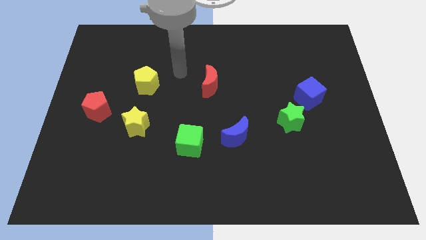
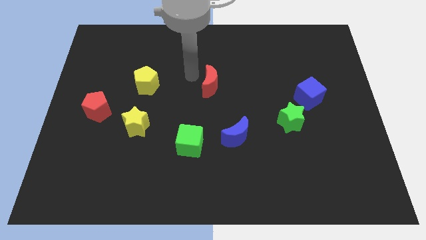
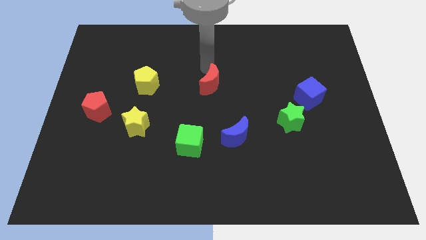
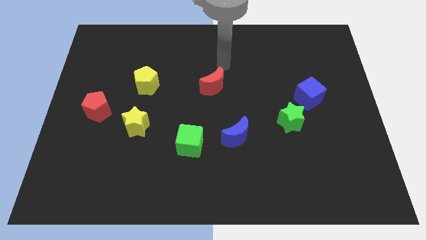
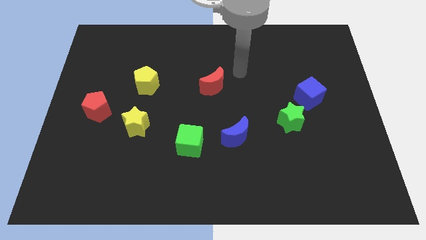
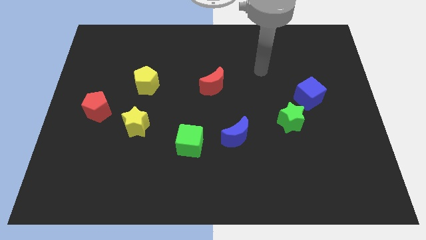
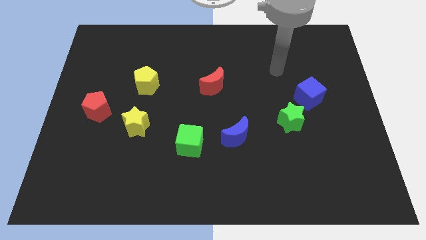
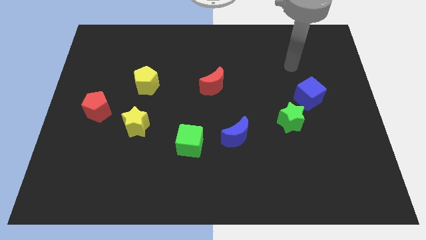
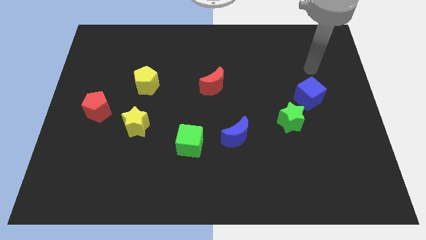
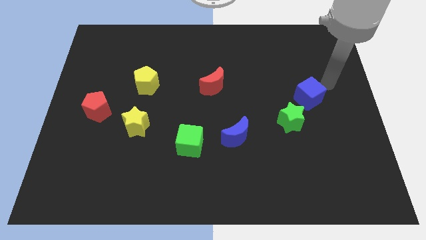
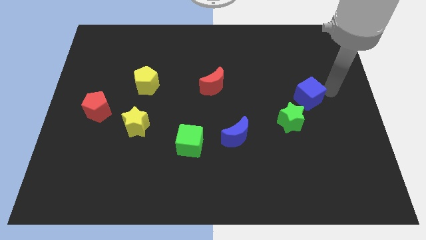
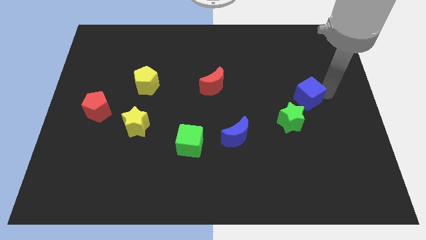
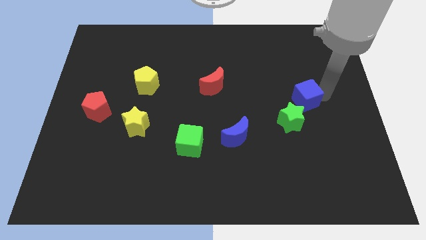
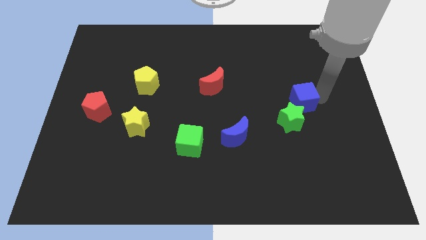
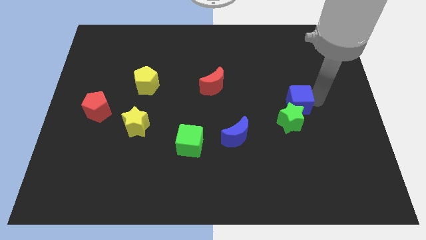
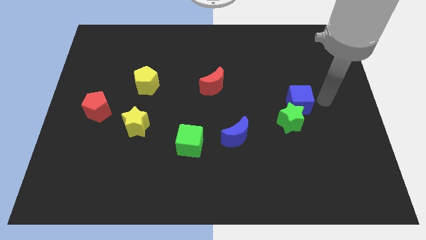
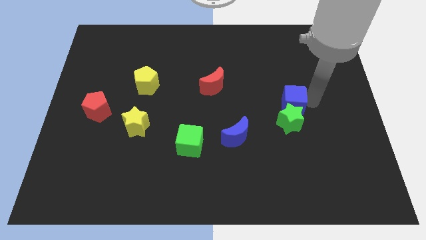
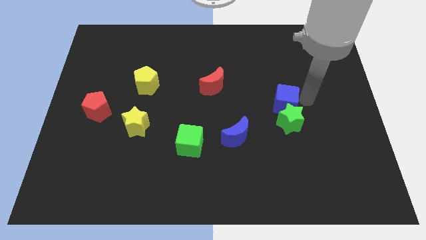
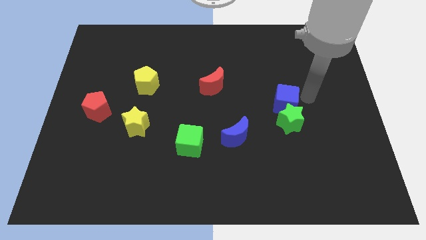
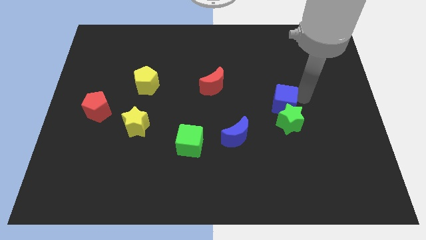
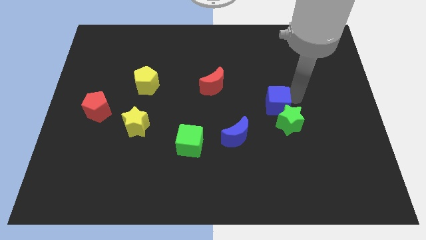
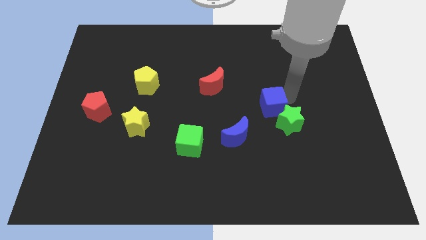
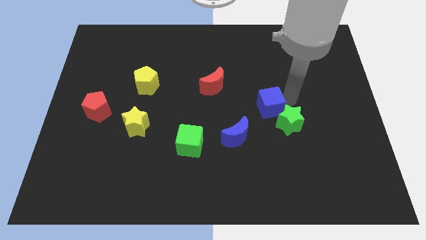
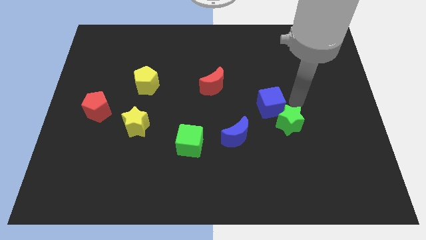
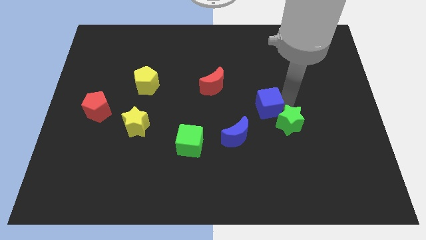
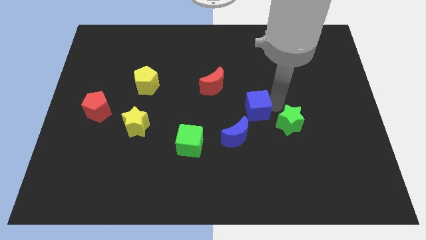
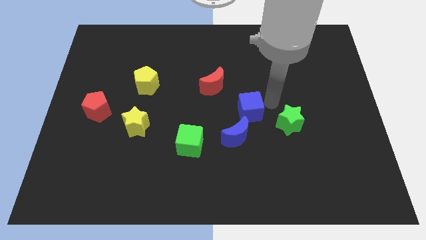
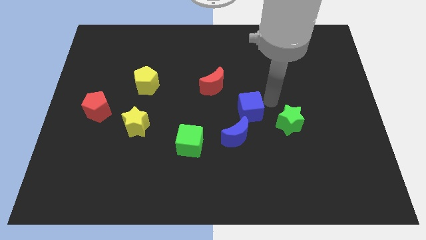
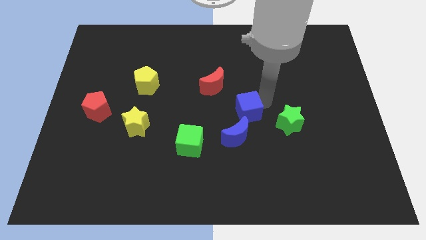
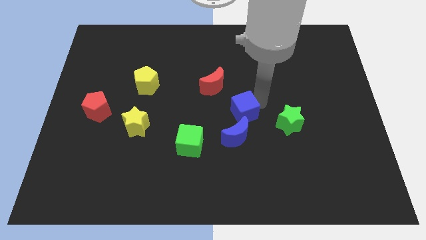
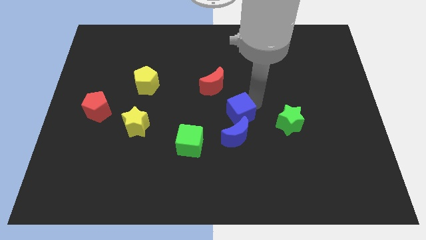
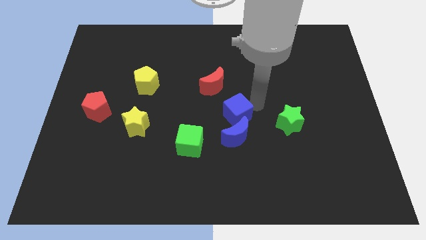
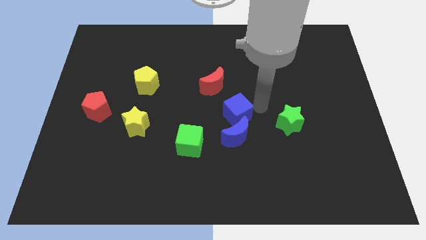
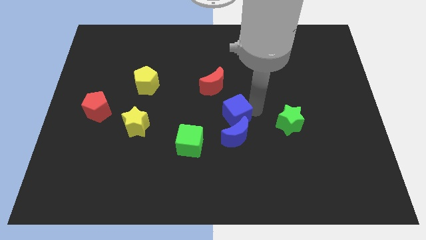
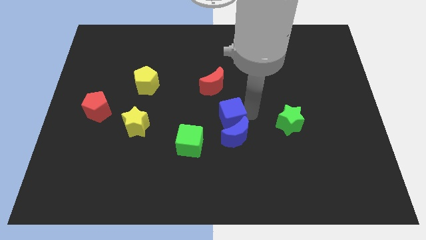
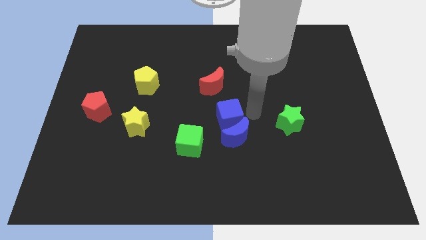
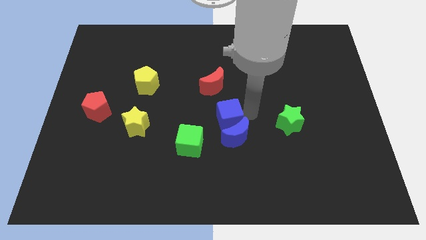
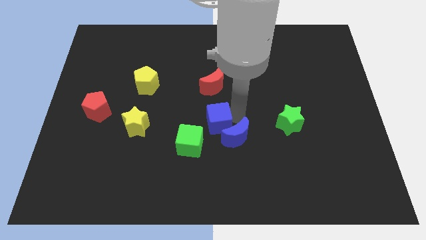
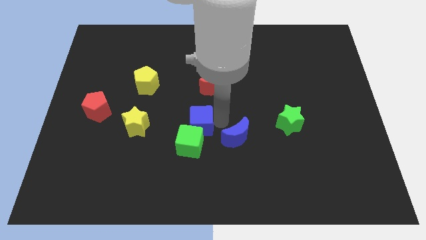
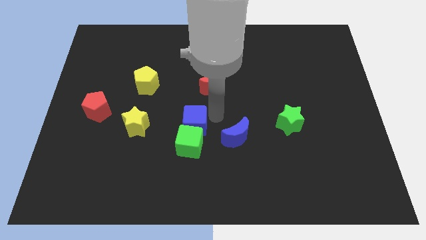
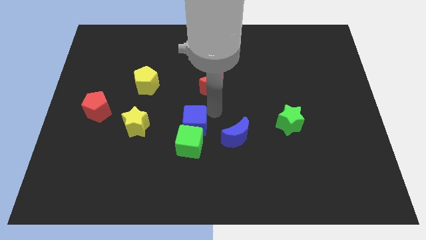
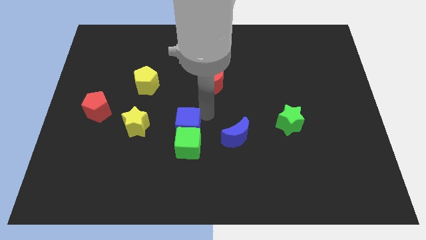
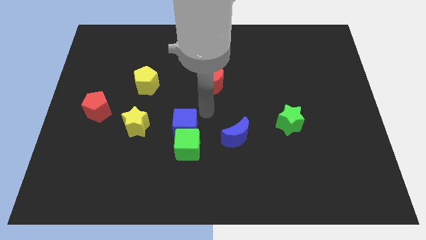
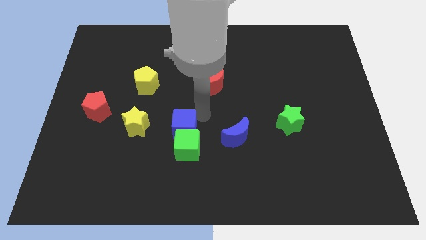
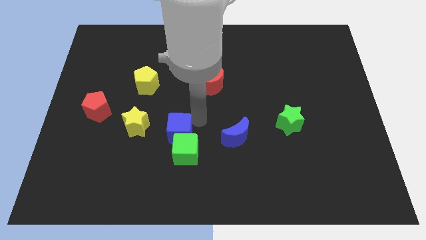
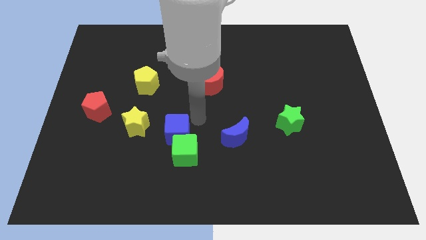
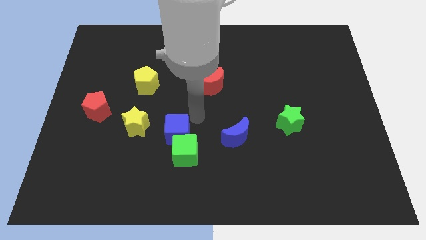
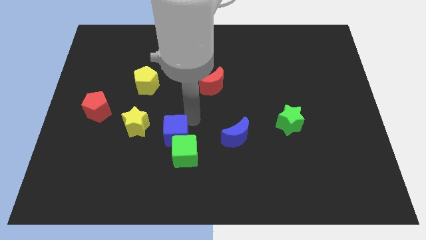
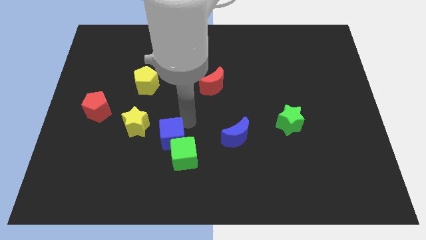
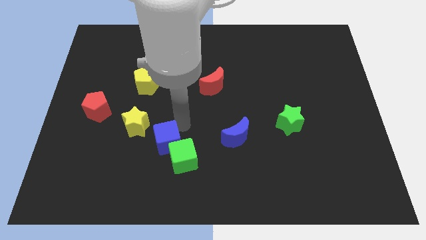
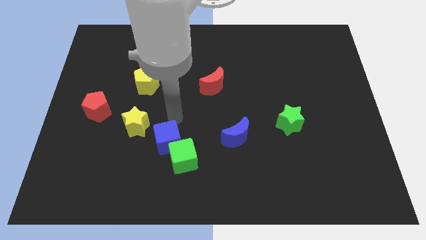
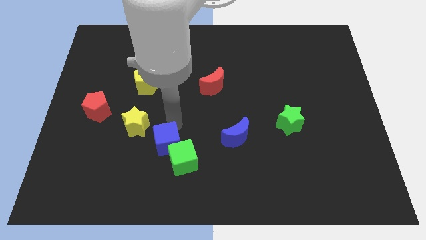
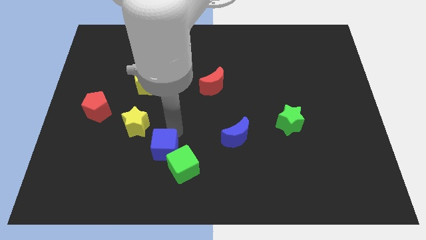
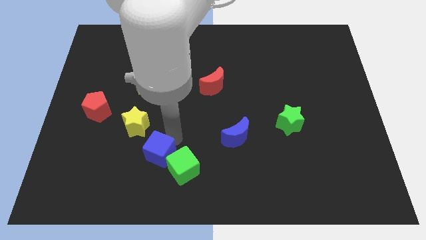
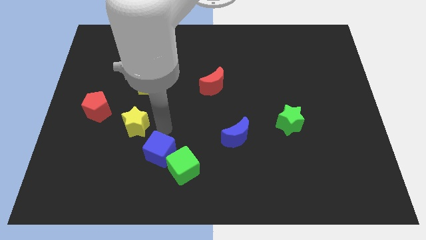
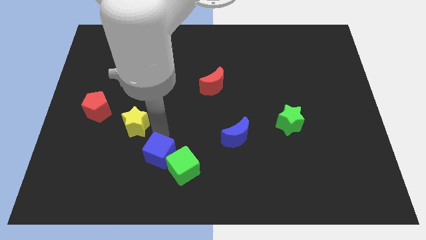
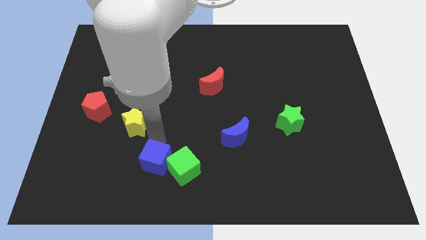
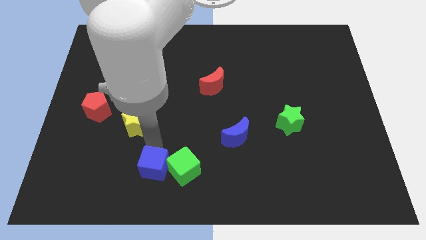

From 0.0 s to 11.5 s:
put the blue cube diagonally down and to the left of the green cube

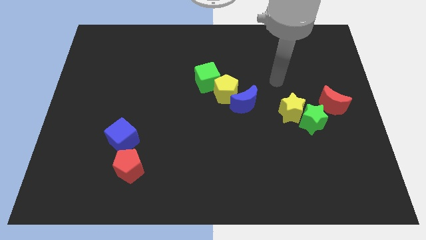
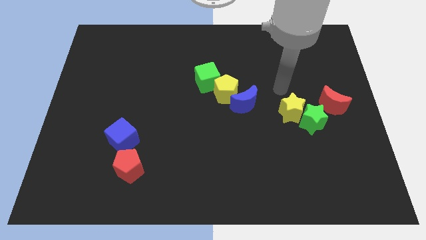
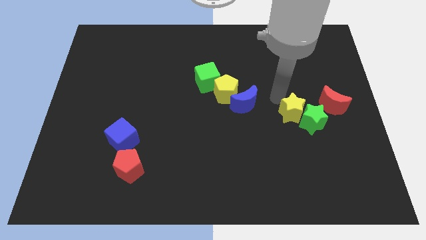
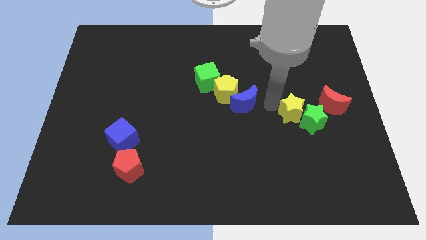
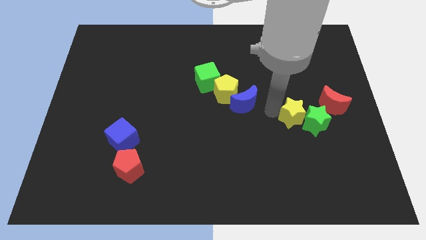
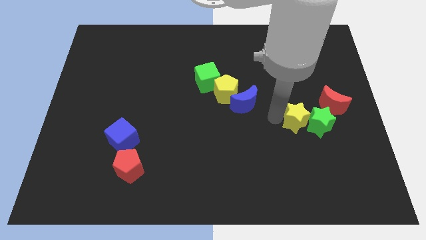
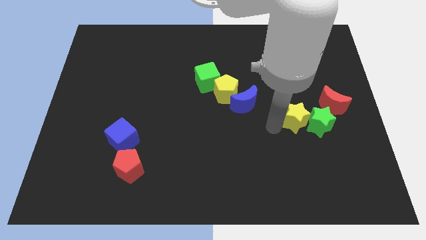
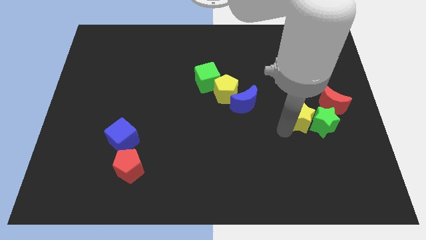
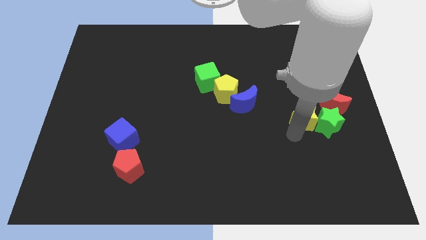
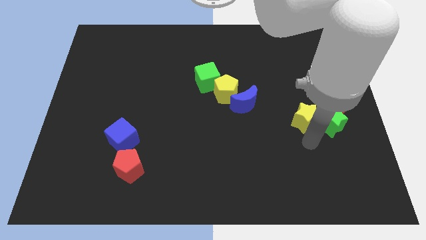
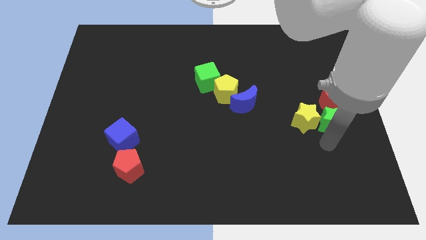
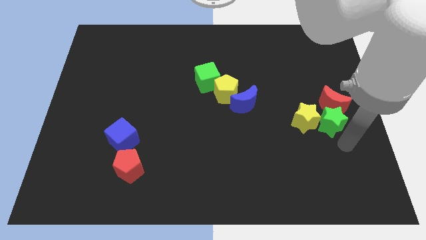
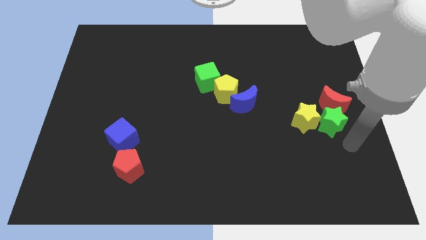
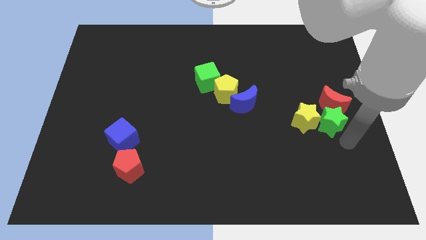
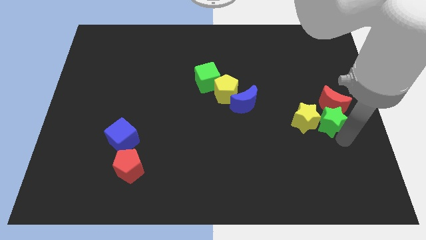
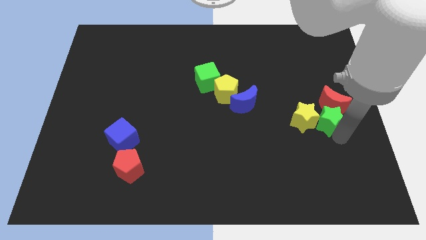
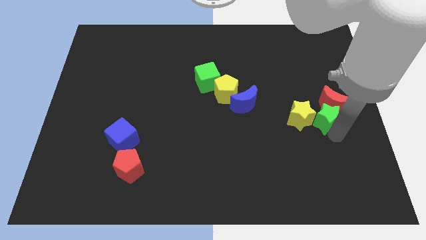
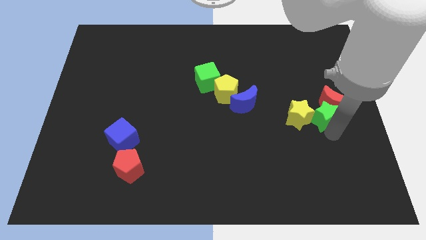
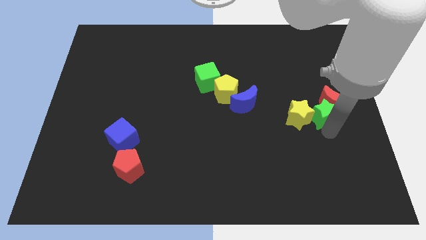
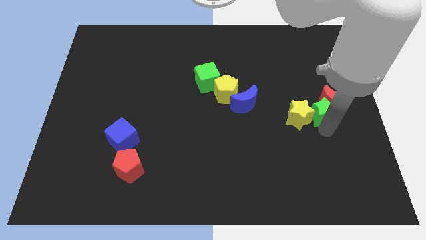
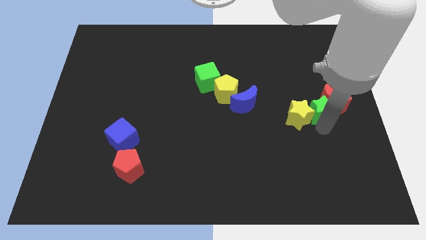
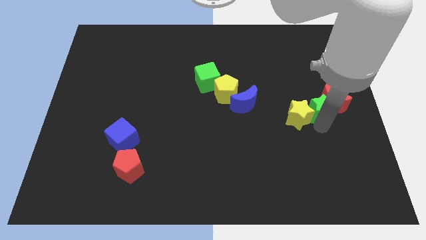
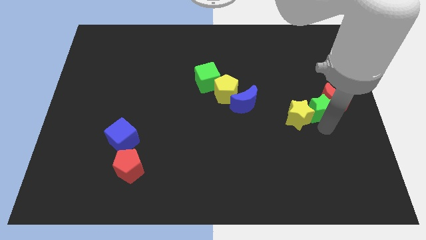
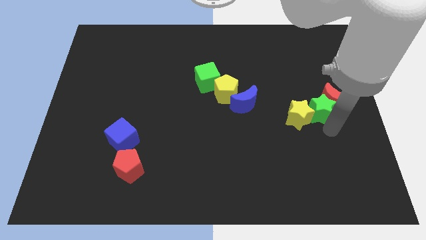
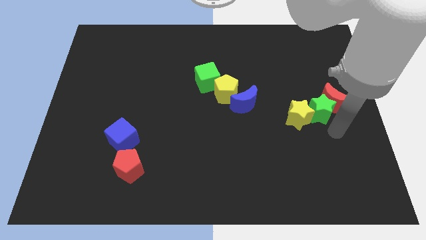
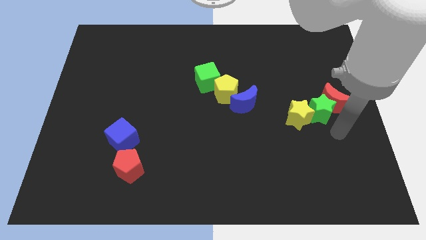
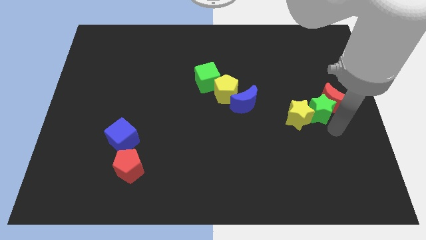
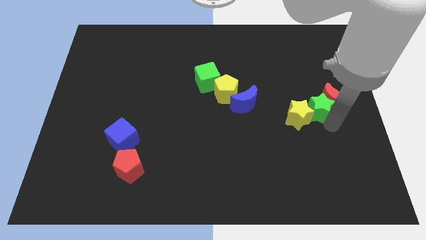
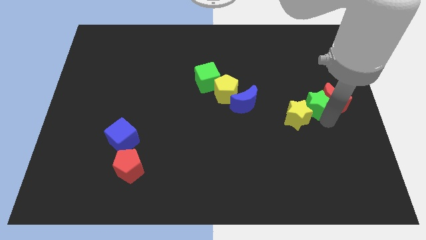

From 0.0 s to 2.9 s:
slide the green star to the top left of the red moon
